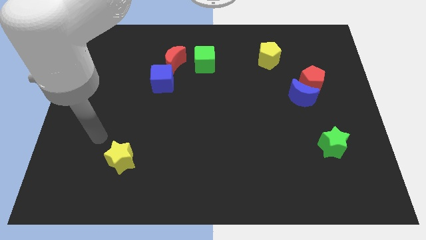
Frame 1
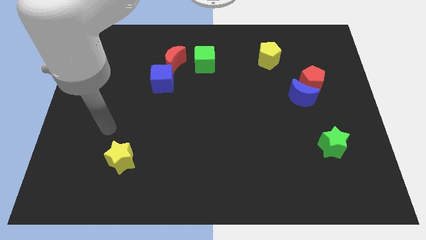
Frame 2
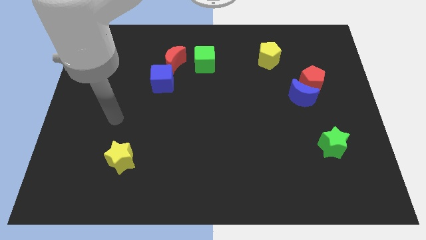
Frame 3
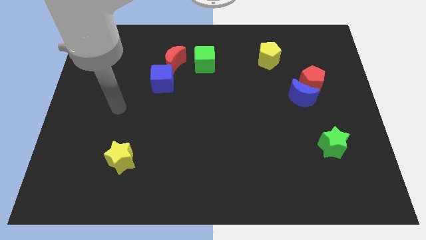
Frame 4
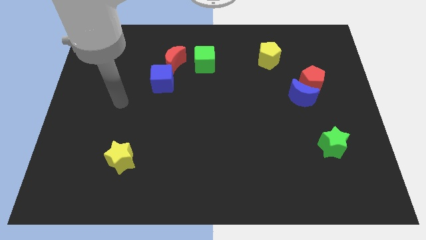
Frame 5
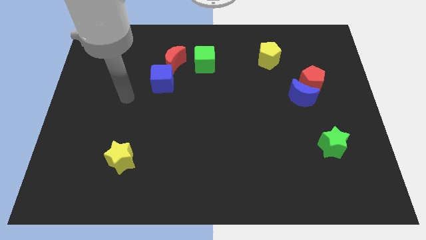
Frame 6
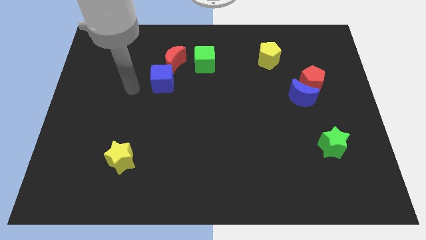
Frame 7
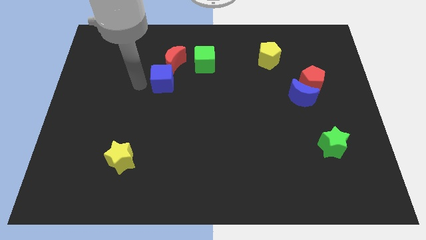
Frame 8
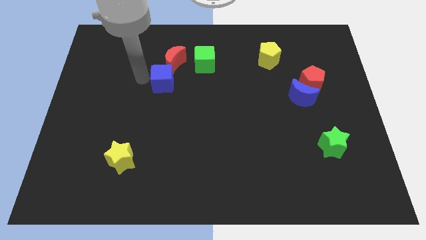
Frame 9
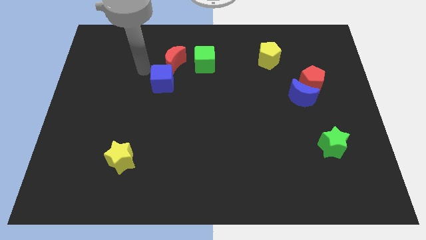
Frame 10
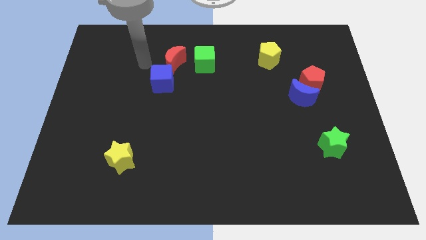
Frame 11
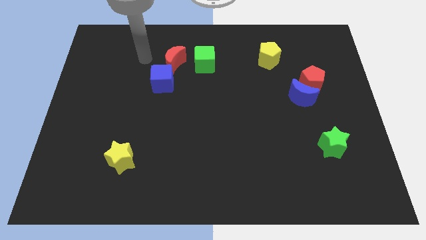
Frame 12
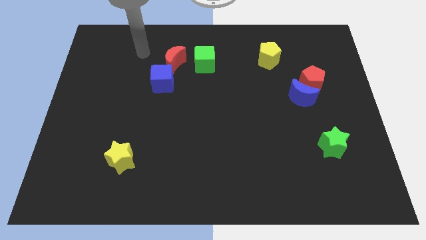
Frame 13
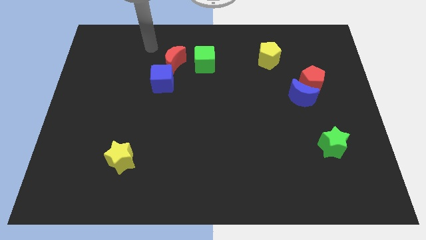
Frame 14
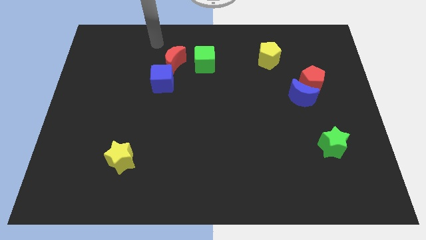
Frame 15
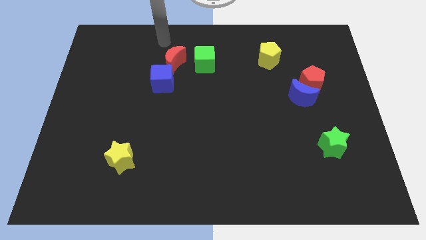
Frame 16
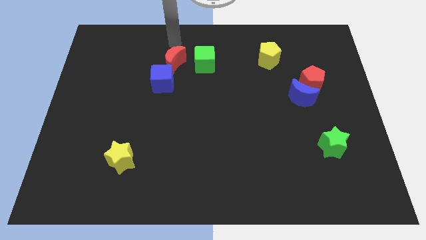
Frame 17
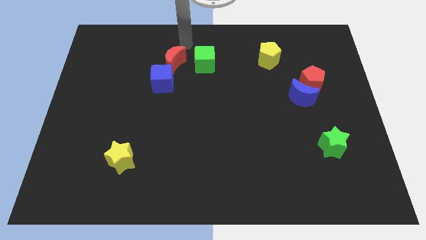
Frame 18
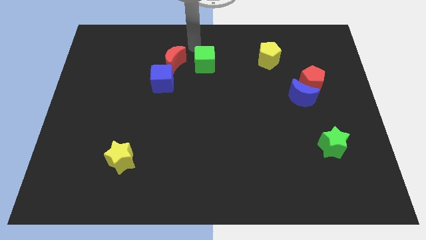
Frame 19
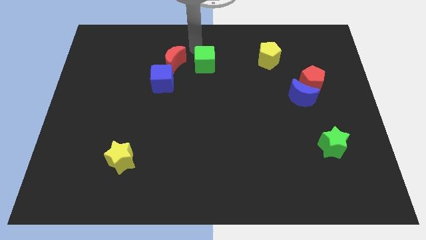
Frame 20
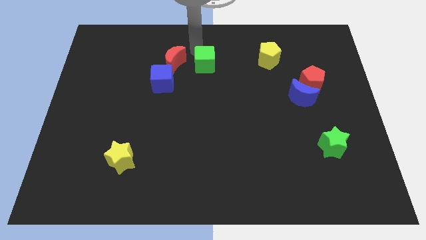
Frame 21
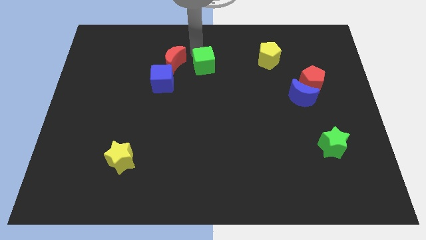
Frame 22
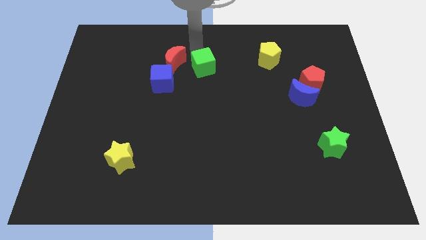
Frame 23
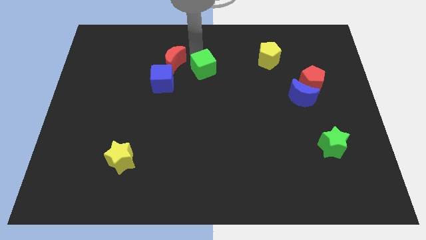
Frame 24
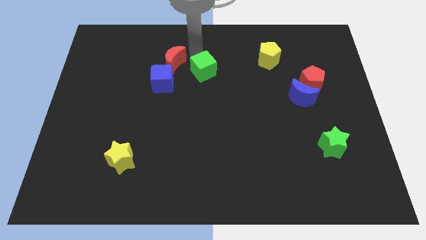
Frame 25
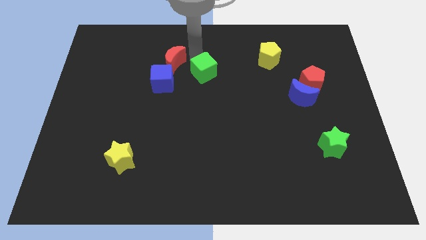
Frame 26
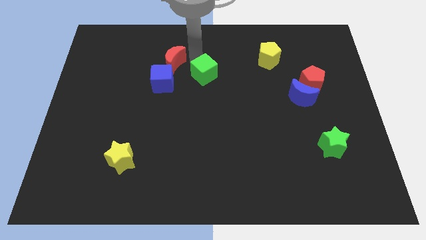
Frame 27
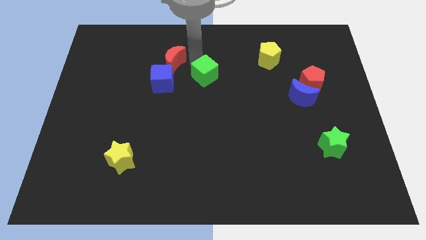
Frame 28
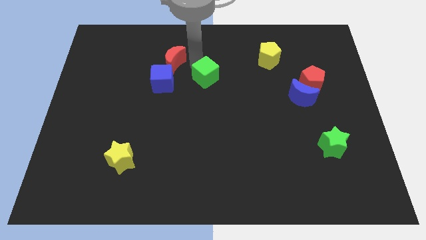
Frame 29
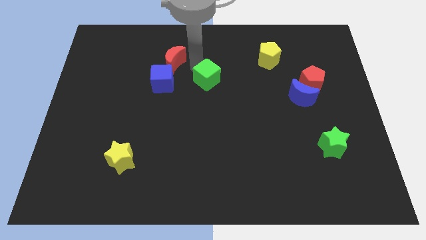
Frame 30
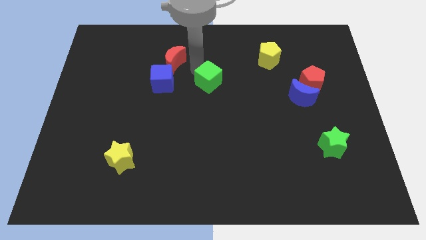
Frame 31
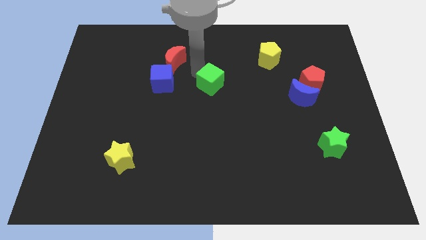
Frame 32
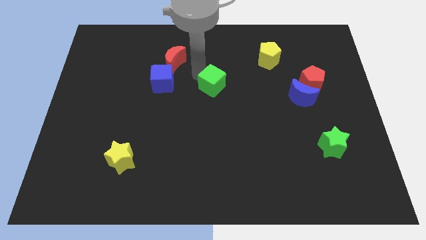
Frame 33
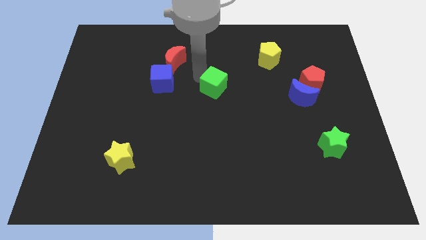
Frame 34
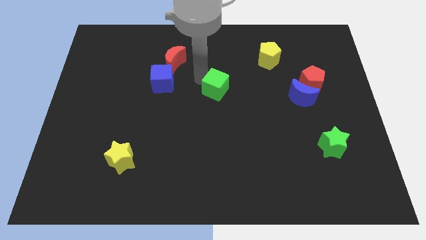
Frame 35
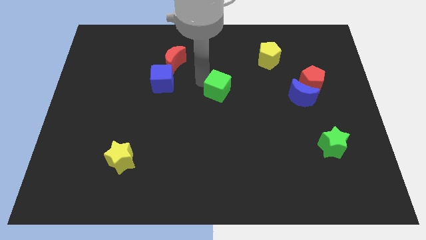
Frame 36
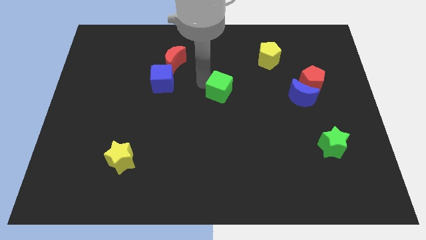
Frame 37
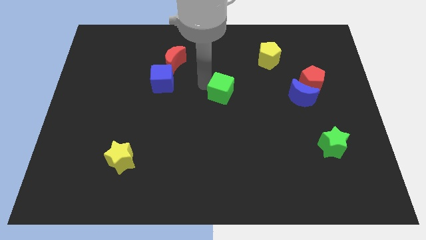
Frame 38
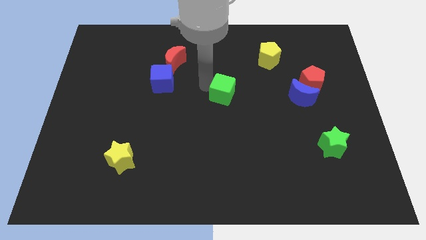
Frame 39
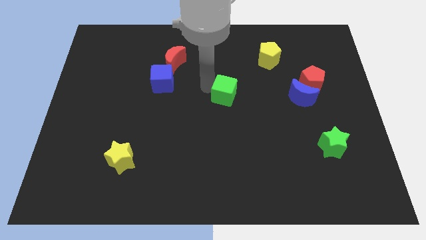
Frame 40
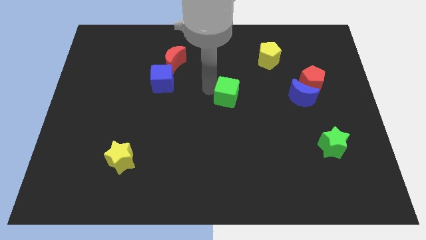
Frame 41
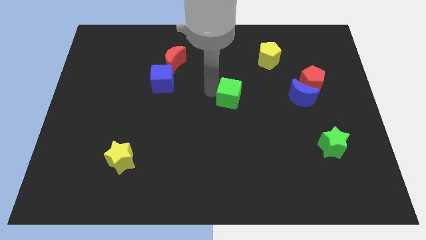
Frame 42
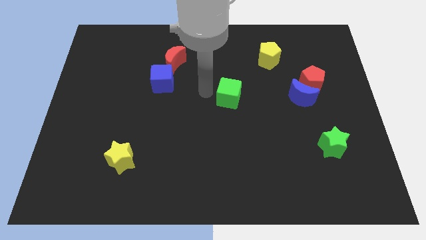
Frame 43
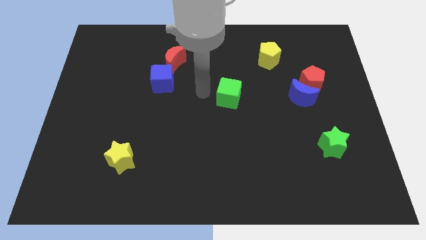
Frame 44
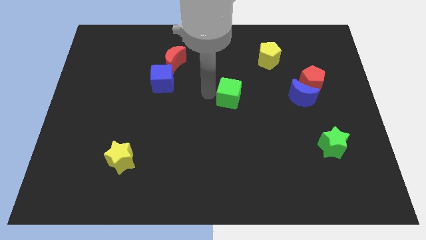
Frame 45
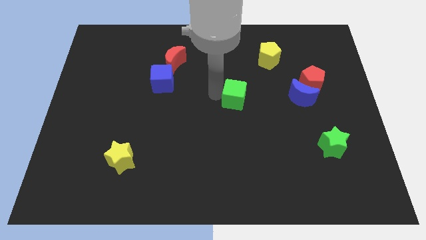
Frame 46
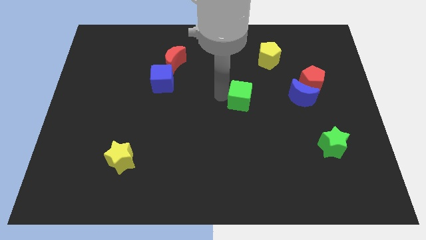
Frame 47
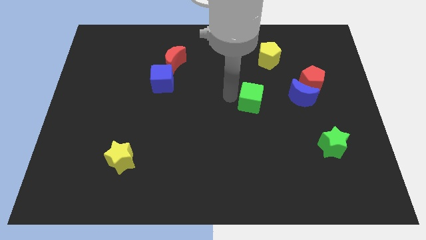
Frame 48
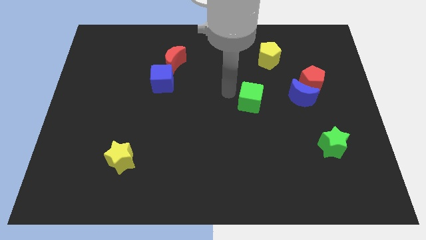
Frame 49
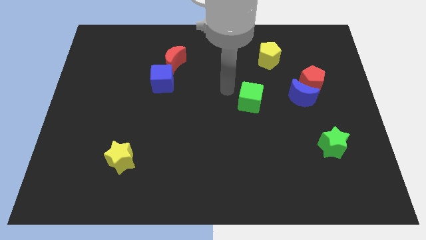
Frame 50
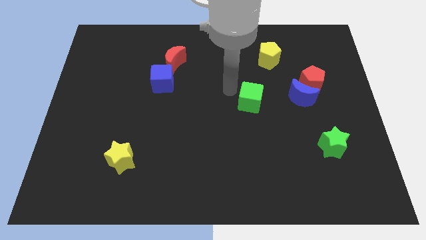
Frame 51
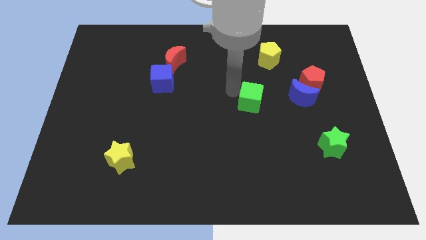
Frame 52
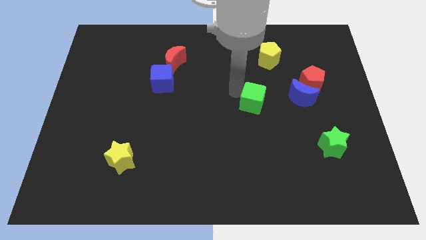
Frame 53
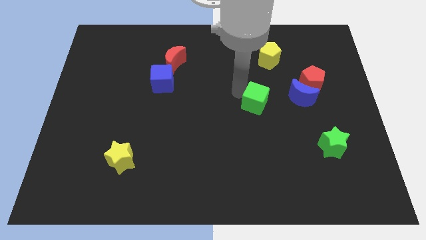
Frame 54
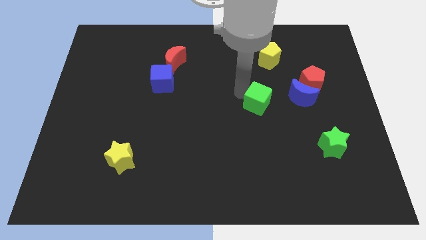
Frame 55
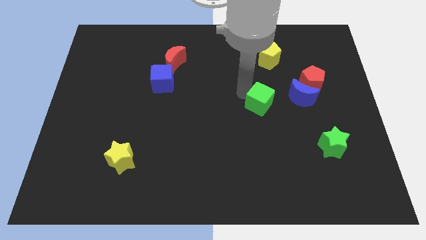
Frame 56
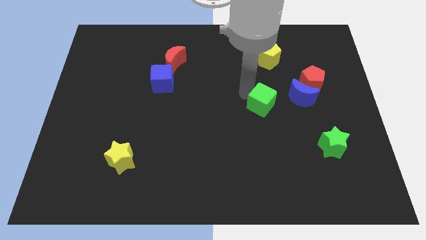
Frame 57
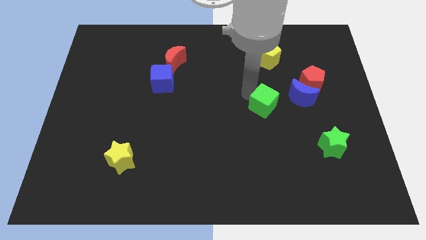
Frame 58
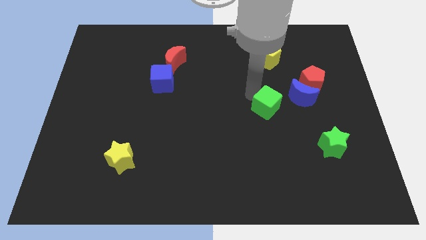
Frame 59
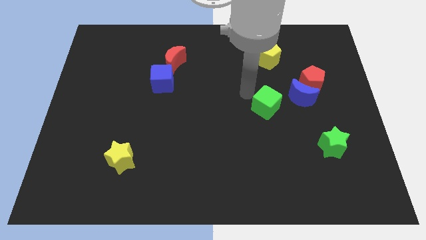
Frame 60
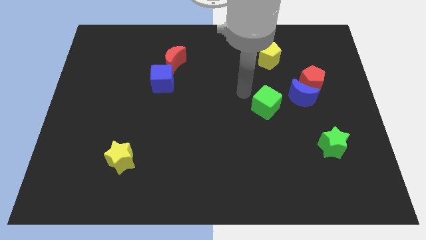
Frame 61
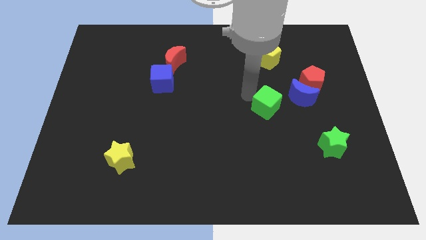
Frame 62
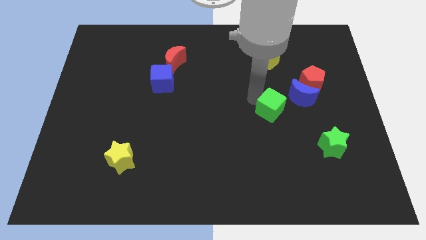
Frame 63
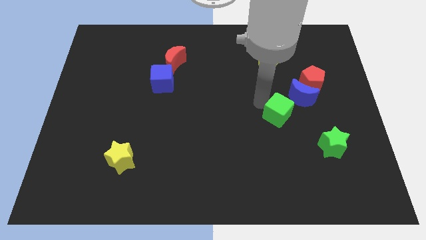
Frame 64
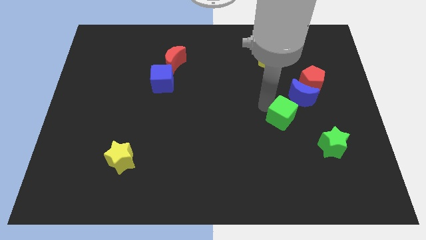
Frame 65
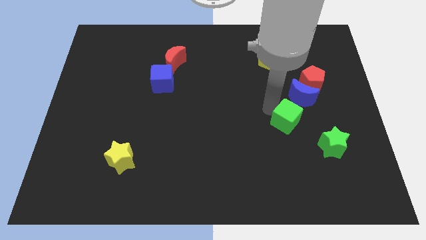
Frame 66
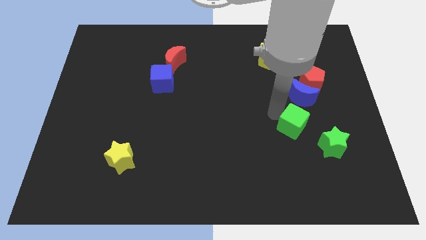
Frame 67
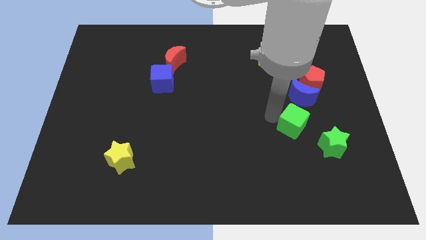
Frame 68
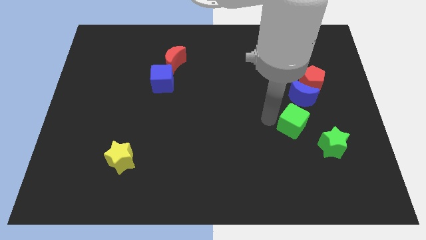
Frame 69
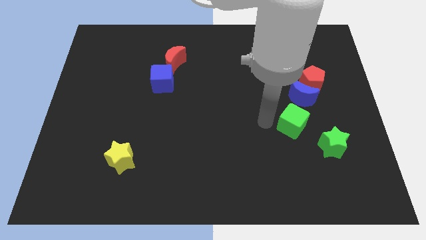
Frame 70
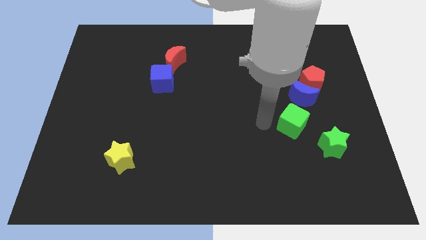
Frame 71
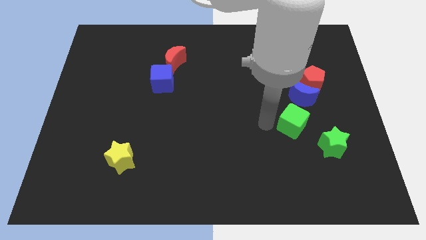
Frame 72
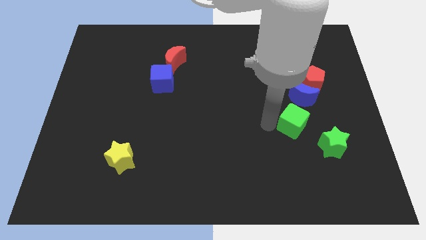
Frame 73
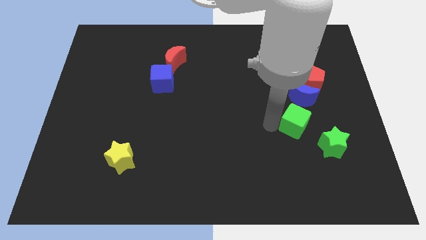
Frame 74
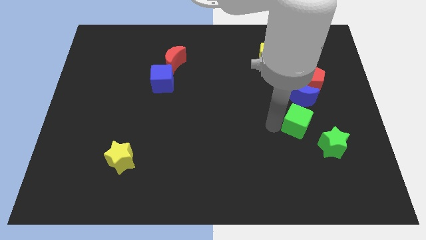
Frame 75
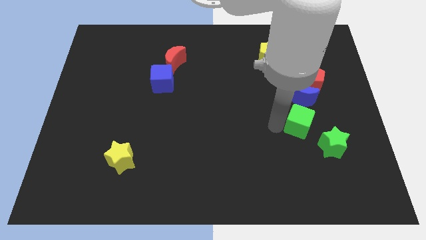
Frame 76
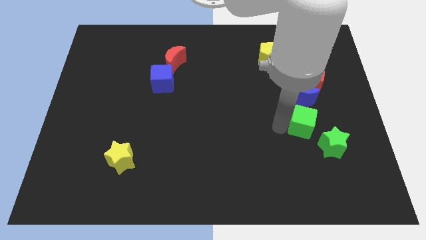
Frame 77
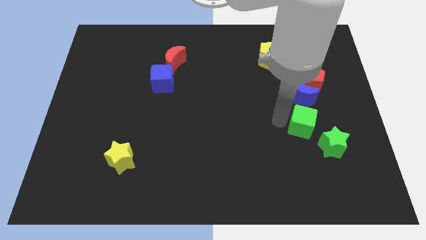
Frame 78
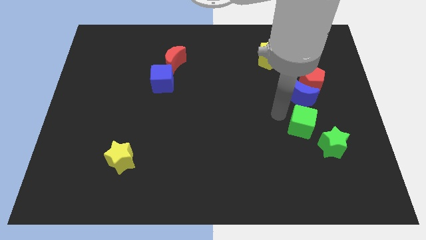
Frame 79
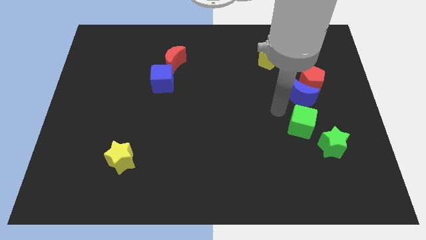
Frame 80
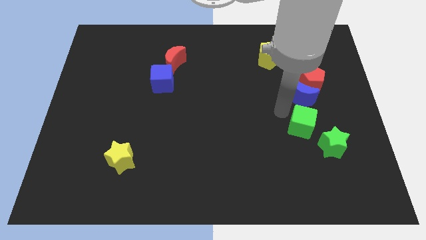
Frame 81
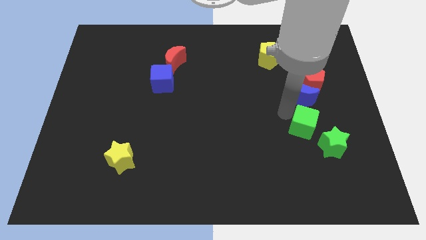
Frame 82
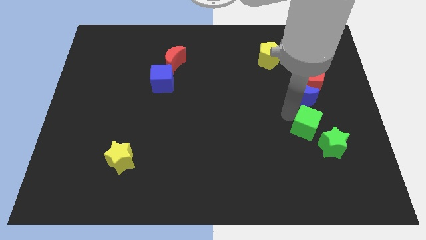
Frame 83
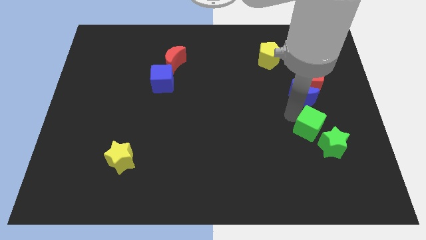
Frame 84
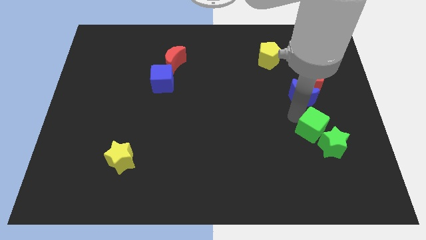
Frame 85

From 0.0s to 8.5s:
slide the green cube towards the green star
